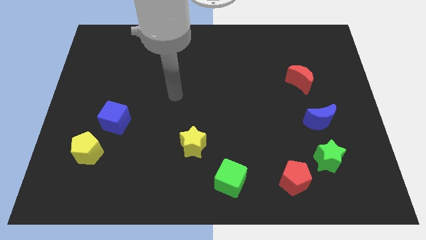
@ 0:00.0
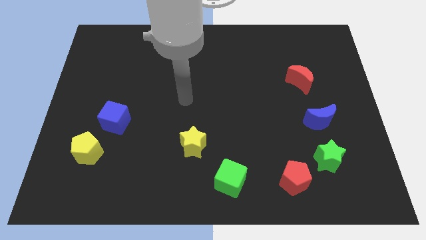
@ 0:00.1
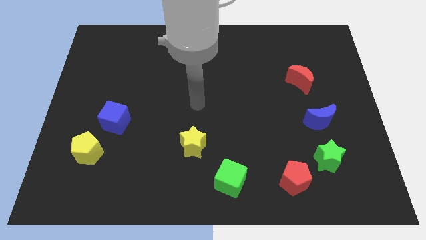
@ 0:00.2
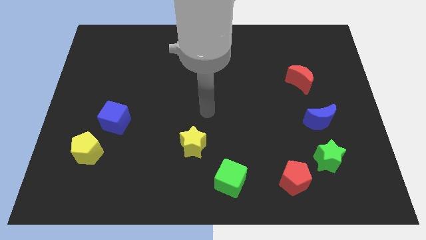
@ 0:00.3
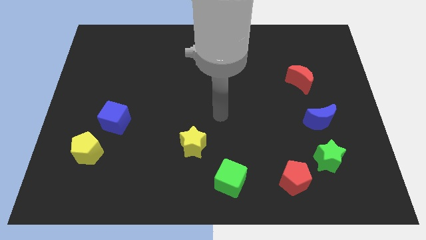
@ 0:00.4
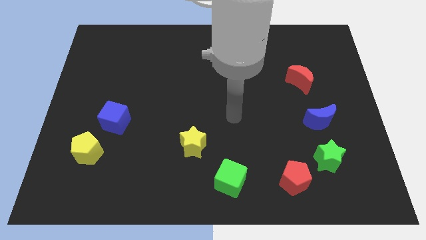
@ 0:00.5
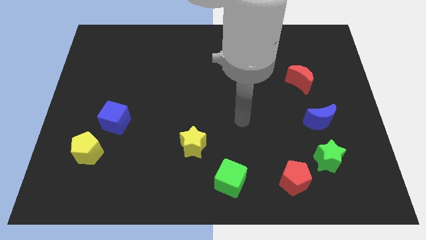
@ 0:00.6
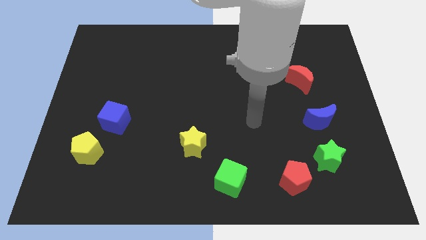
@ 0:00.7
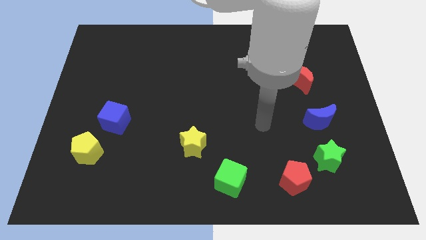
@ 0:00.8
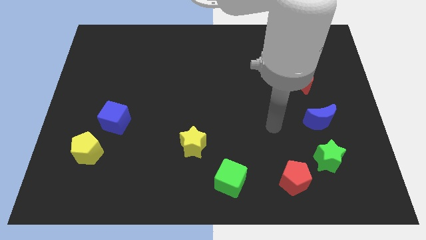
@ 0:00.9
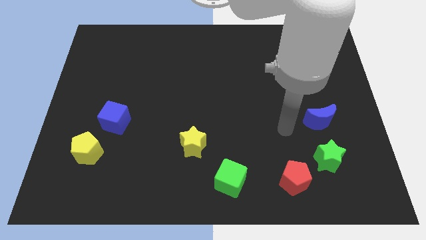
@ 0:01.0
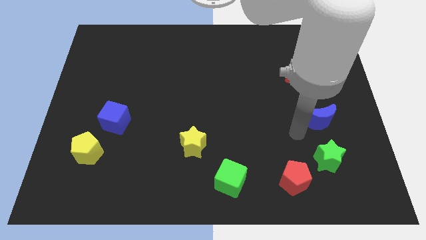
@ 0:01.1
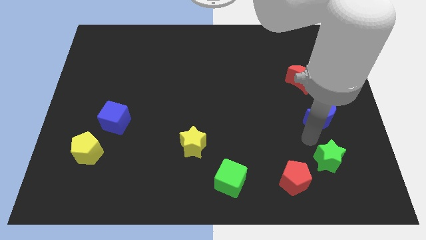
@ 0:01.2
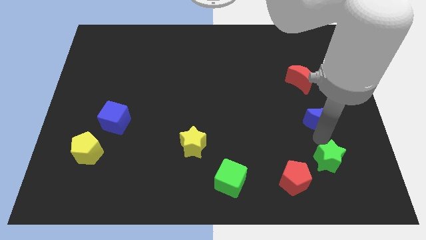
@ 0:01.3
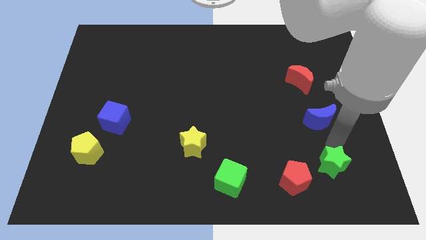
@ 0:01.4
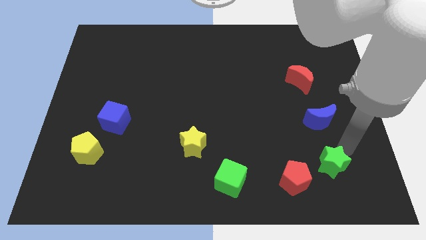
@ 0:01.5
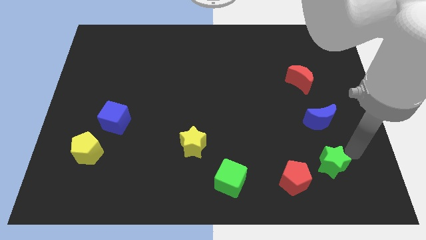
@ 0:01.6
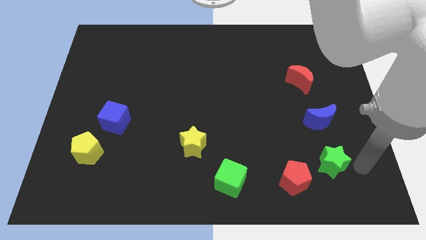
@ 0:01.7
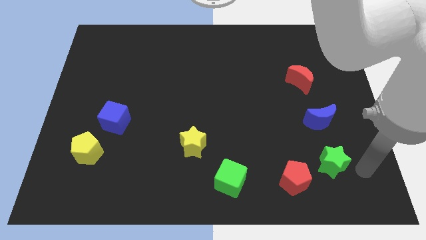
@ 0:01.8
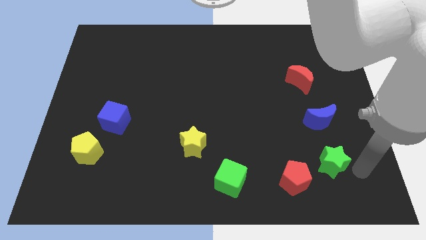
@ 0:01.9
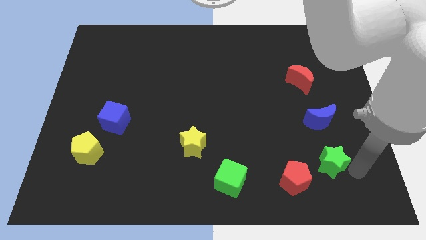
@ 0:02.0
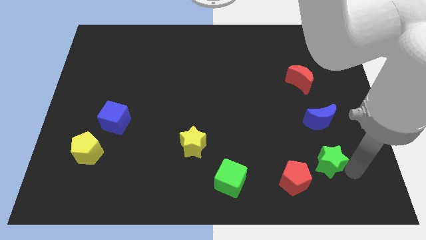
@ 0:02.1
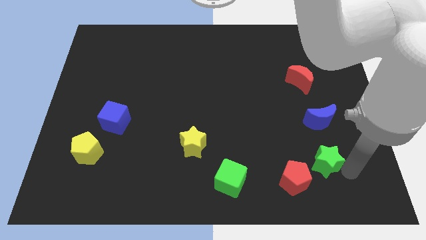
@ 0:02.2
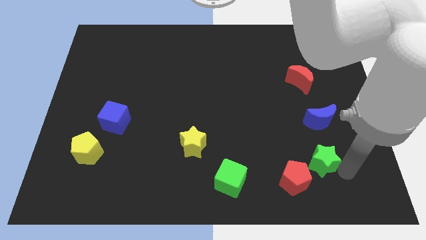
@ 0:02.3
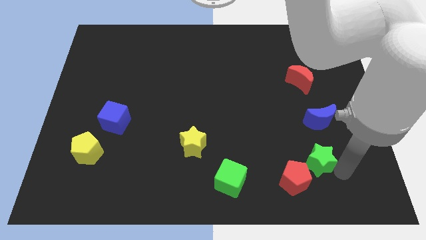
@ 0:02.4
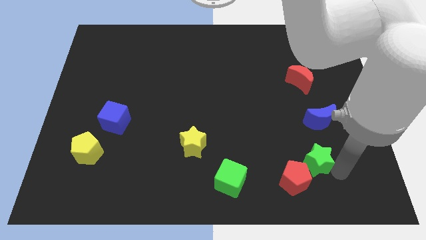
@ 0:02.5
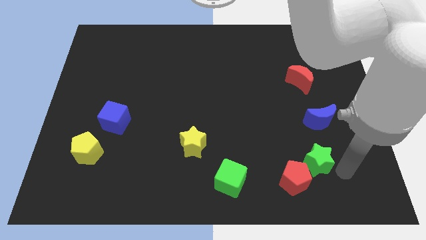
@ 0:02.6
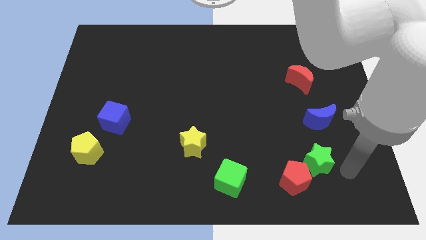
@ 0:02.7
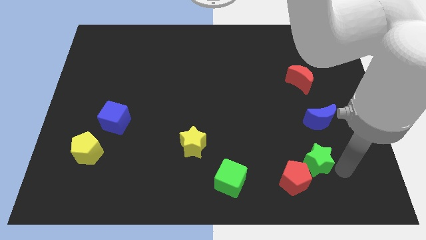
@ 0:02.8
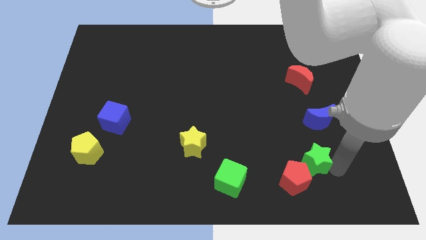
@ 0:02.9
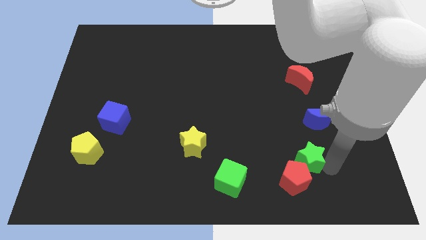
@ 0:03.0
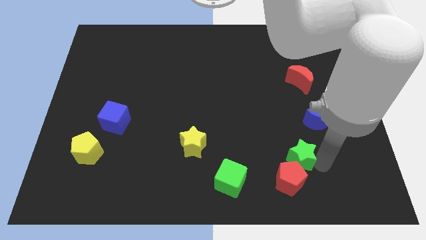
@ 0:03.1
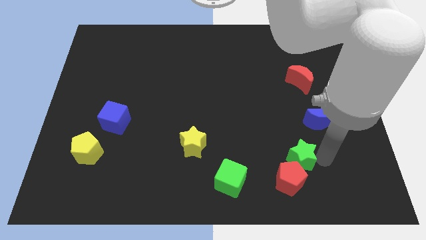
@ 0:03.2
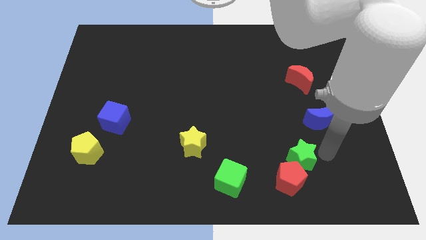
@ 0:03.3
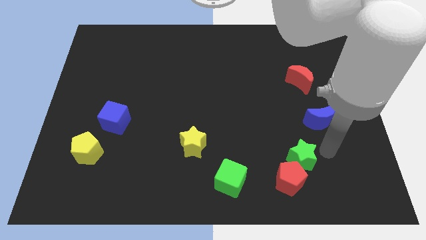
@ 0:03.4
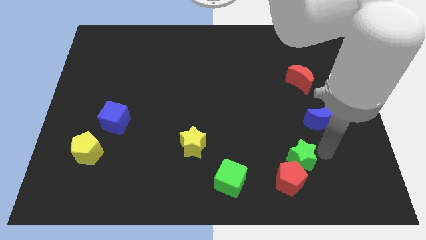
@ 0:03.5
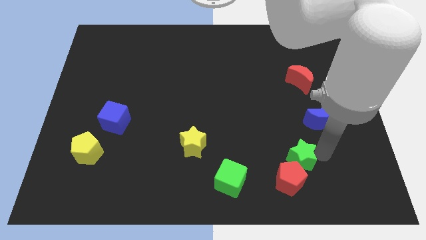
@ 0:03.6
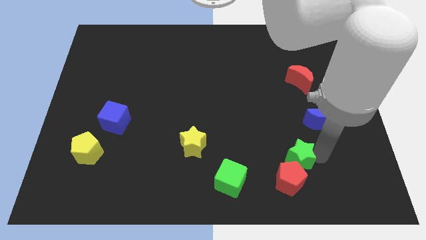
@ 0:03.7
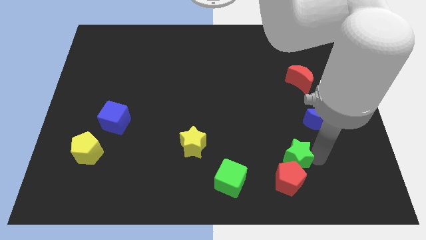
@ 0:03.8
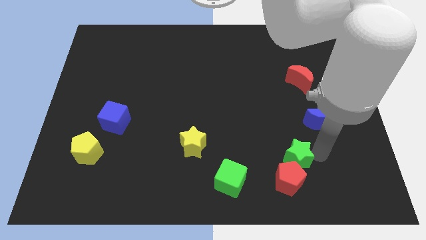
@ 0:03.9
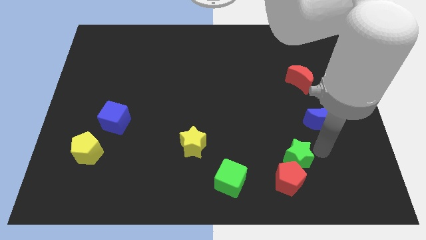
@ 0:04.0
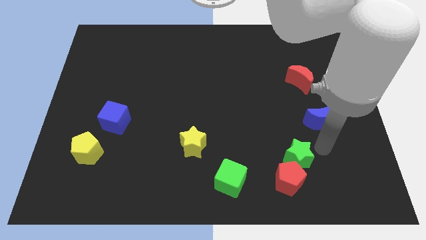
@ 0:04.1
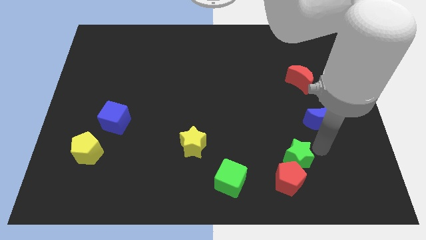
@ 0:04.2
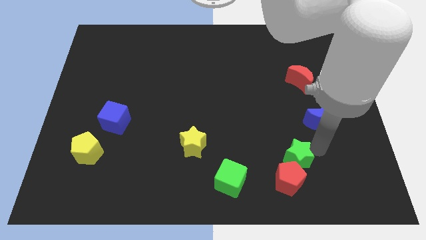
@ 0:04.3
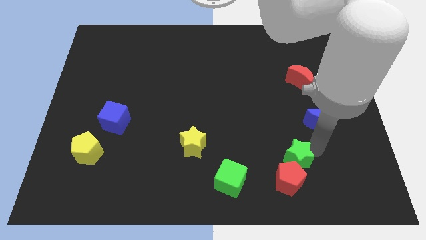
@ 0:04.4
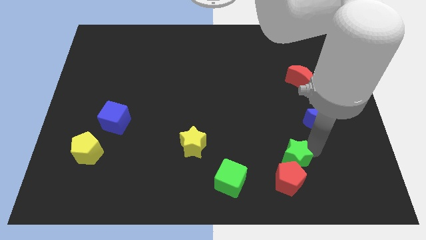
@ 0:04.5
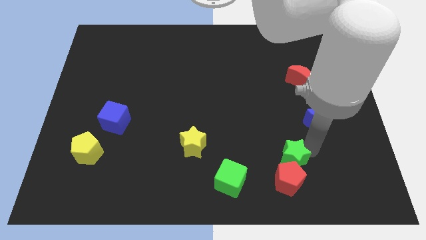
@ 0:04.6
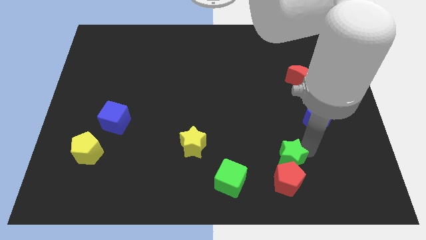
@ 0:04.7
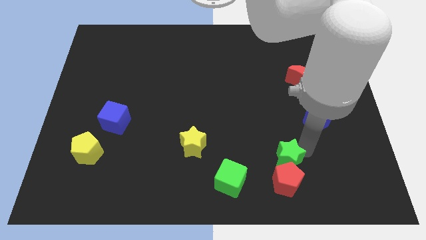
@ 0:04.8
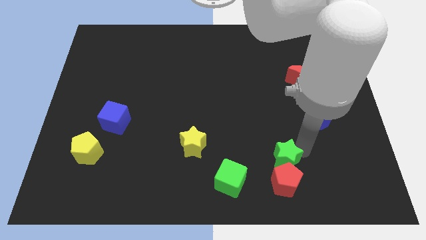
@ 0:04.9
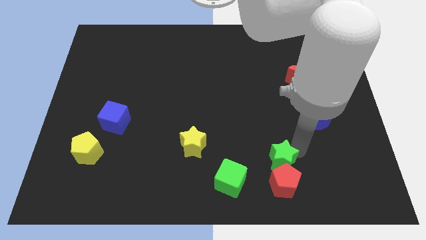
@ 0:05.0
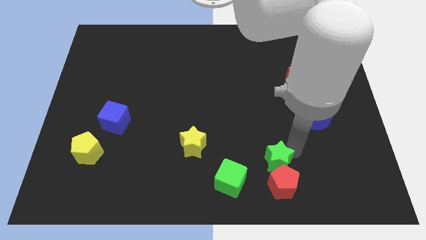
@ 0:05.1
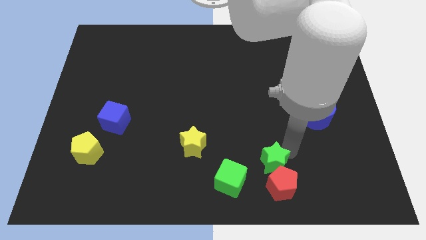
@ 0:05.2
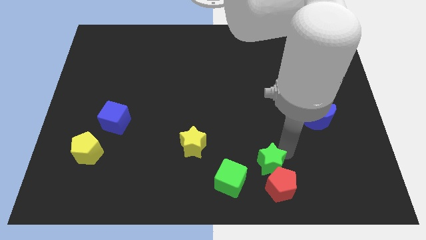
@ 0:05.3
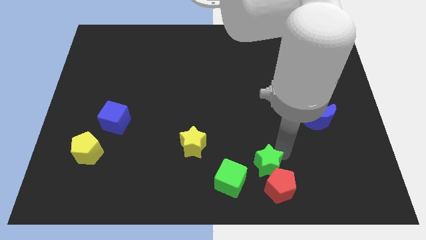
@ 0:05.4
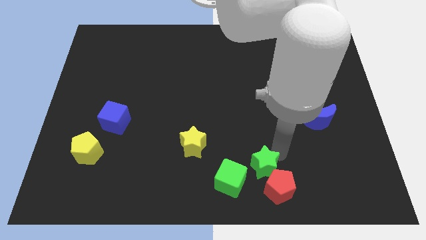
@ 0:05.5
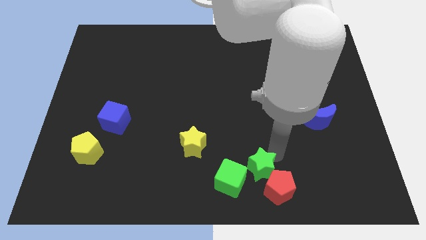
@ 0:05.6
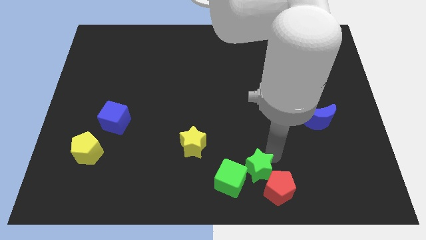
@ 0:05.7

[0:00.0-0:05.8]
push the green star to the bottom side

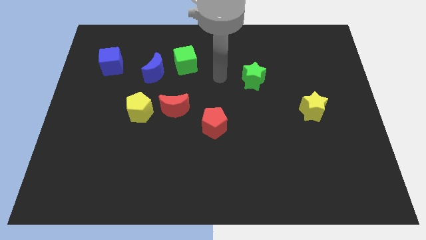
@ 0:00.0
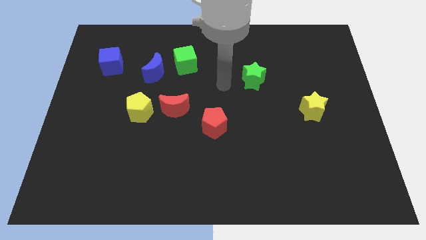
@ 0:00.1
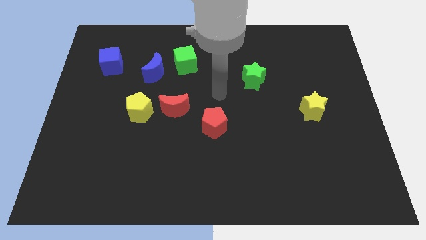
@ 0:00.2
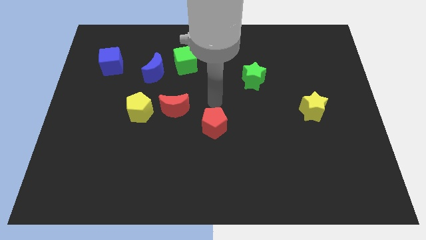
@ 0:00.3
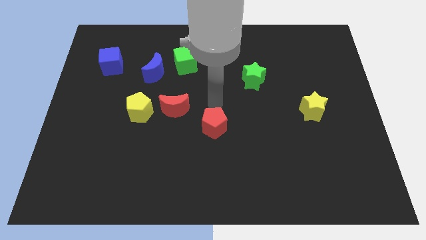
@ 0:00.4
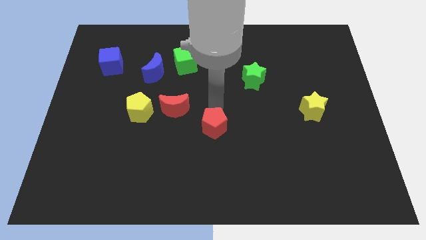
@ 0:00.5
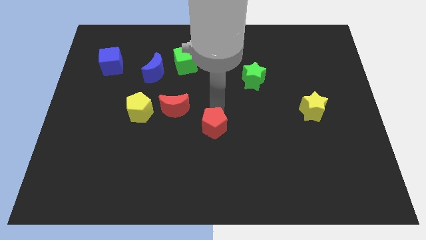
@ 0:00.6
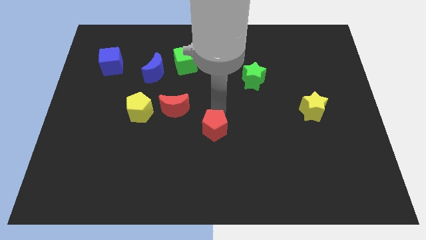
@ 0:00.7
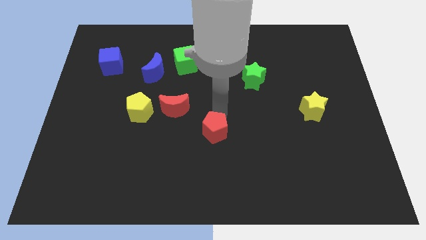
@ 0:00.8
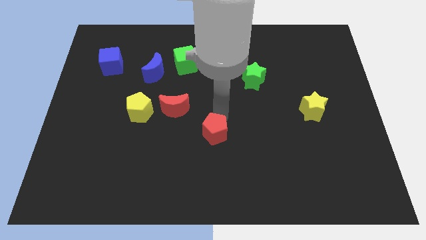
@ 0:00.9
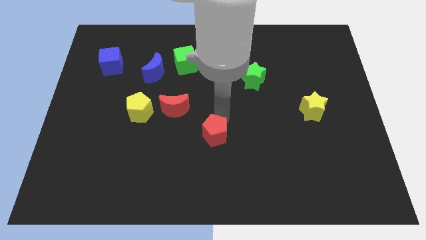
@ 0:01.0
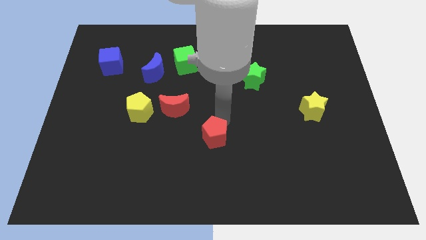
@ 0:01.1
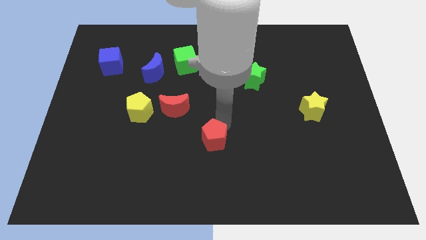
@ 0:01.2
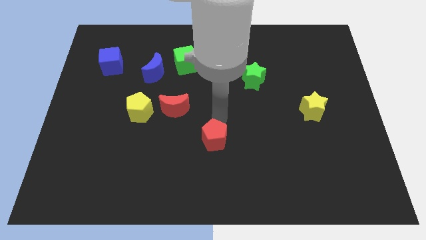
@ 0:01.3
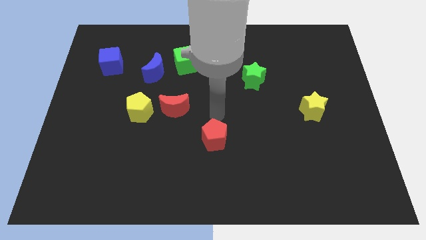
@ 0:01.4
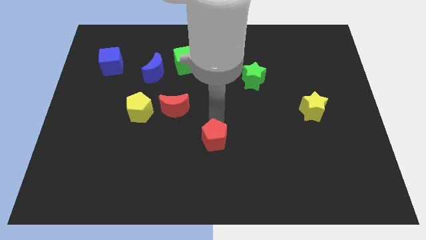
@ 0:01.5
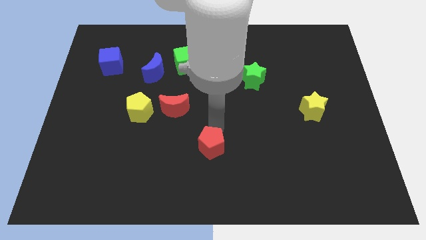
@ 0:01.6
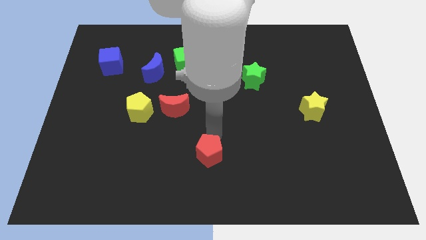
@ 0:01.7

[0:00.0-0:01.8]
push the red pentagon to the bottom
